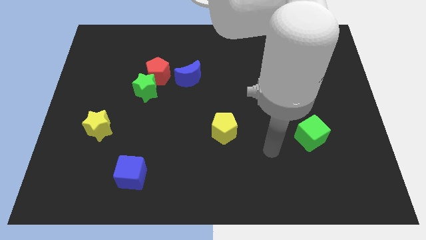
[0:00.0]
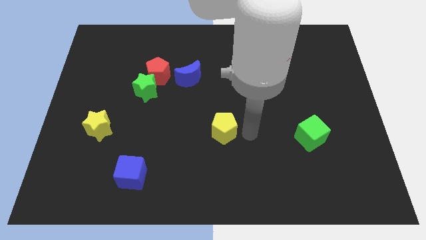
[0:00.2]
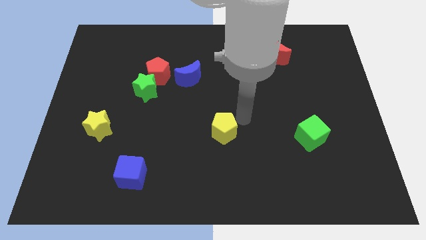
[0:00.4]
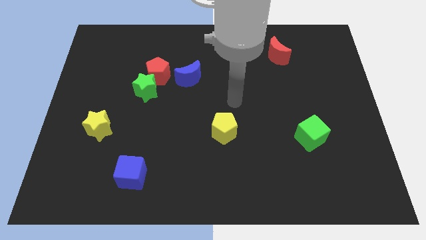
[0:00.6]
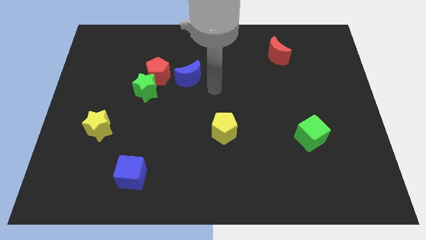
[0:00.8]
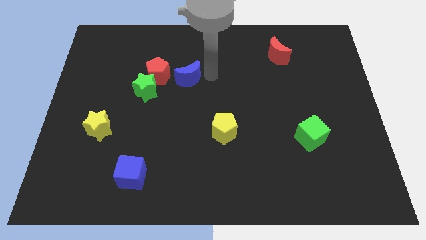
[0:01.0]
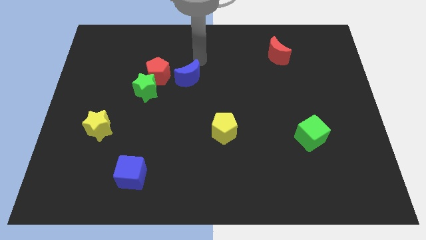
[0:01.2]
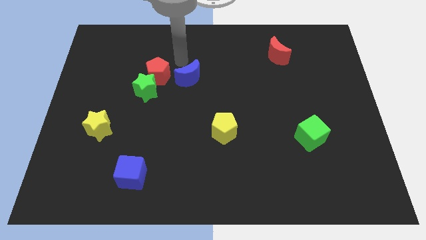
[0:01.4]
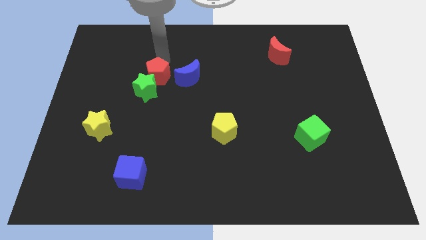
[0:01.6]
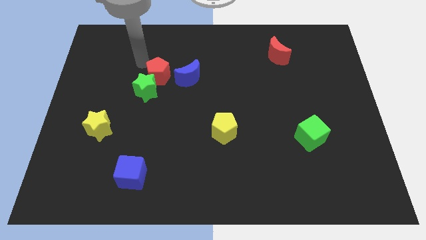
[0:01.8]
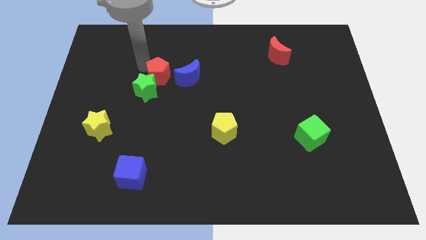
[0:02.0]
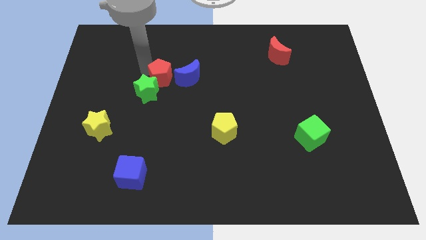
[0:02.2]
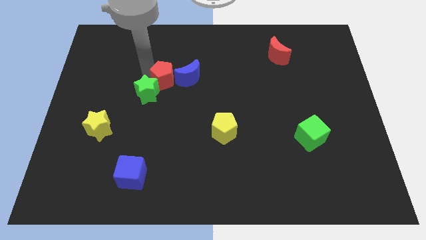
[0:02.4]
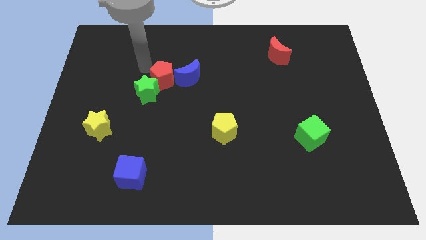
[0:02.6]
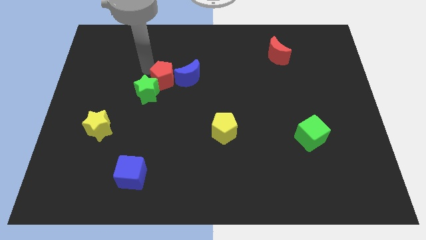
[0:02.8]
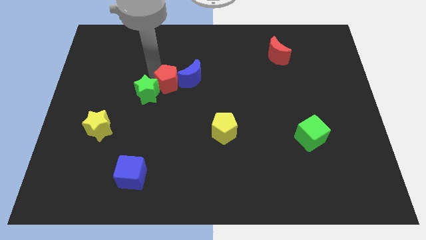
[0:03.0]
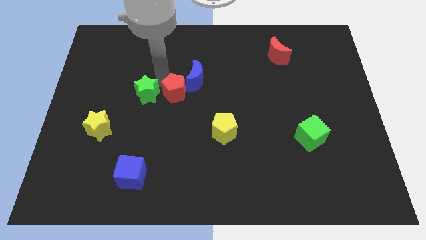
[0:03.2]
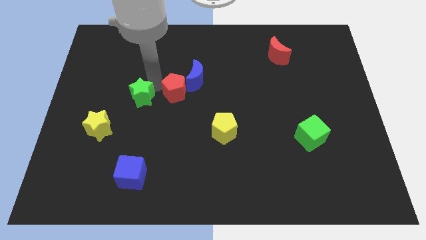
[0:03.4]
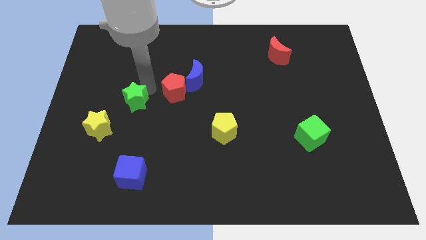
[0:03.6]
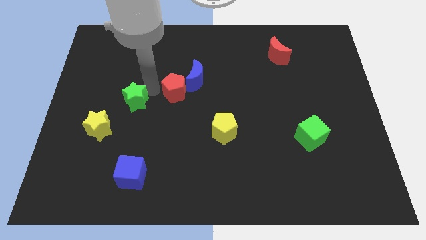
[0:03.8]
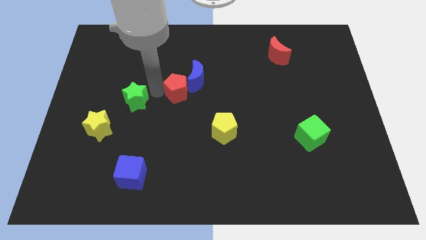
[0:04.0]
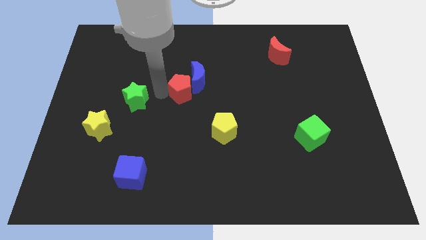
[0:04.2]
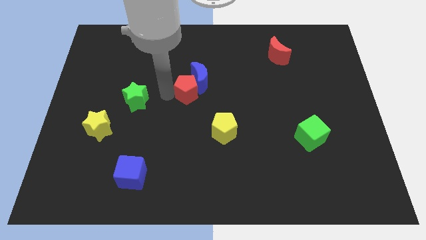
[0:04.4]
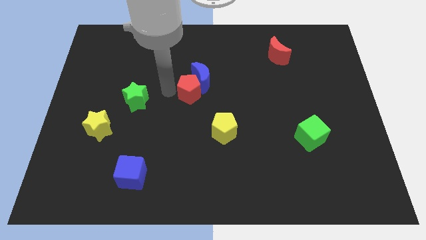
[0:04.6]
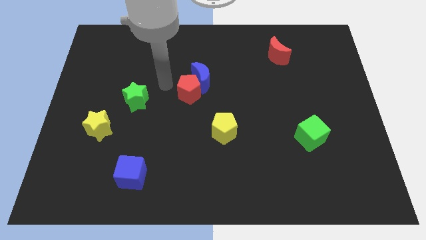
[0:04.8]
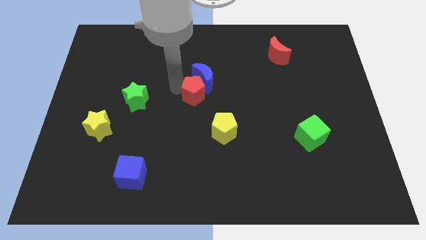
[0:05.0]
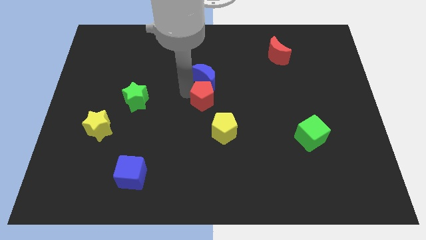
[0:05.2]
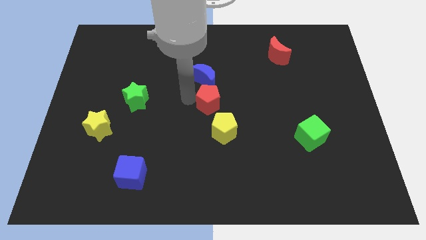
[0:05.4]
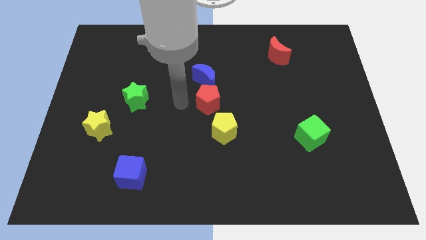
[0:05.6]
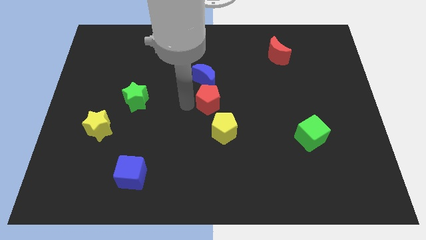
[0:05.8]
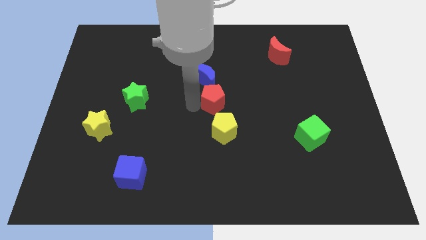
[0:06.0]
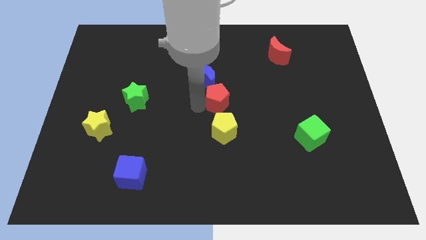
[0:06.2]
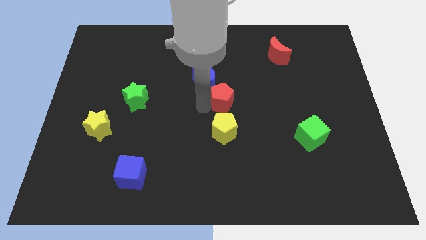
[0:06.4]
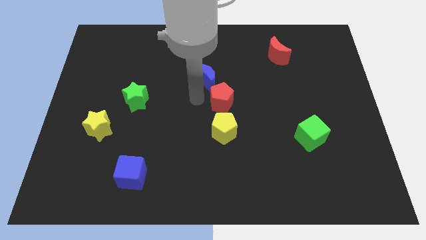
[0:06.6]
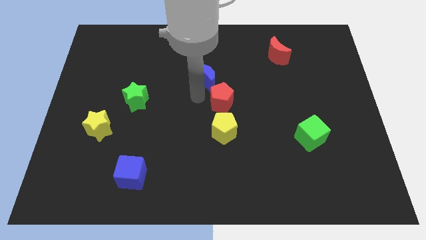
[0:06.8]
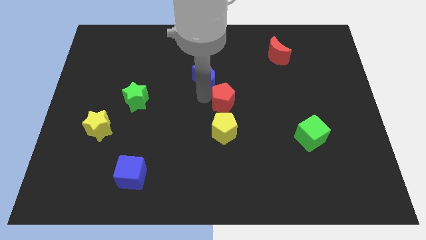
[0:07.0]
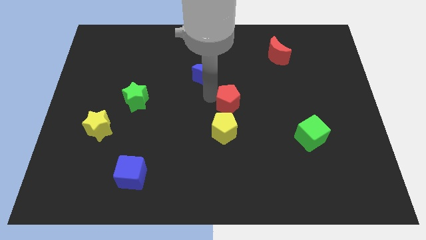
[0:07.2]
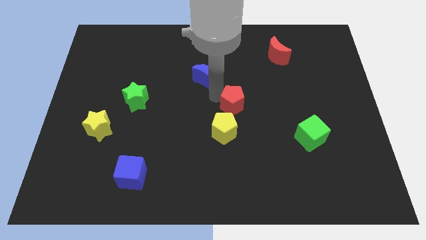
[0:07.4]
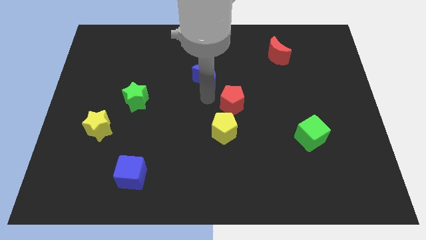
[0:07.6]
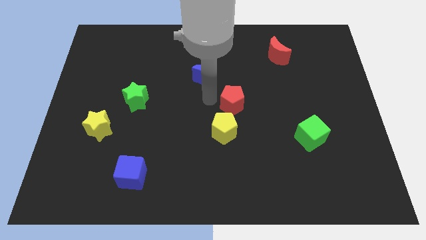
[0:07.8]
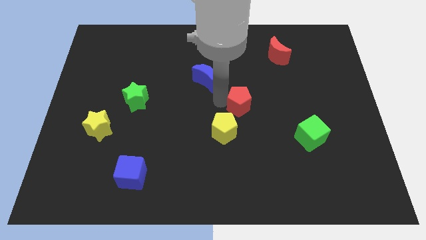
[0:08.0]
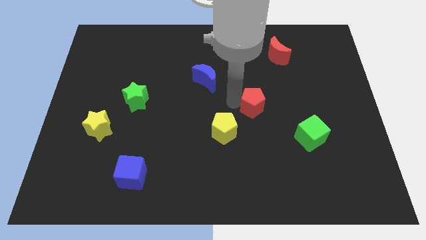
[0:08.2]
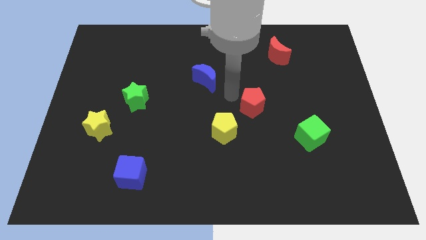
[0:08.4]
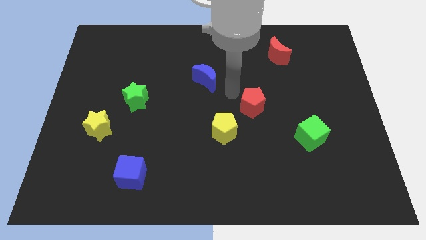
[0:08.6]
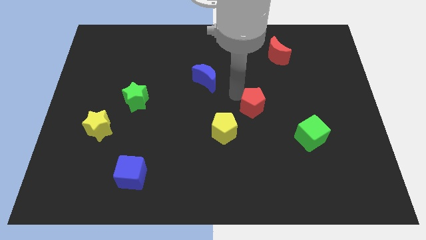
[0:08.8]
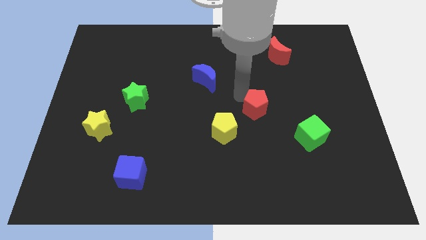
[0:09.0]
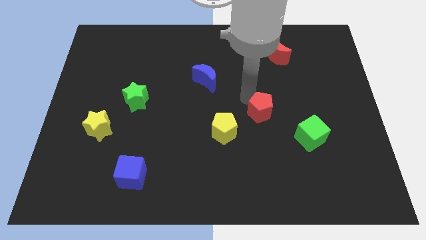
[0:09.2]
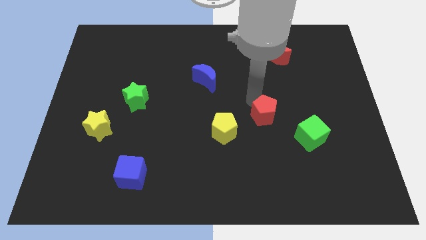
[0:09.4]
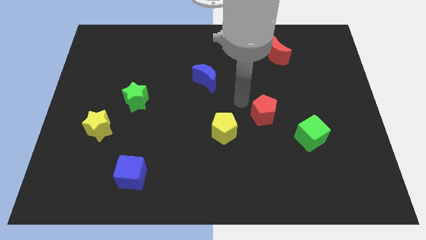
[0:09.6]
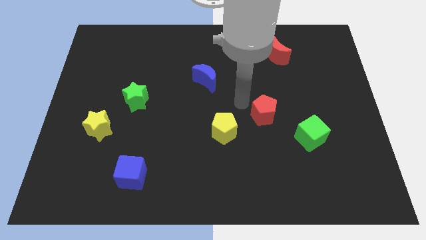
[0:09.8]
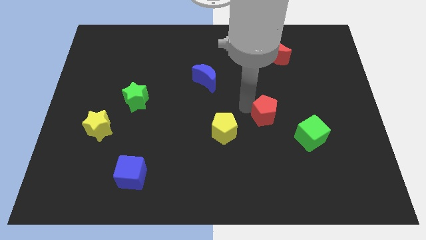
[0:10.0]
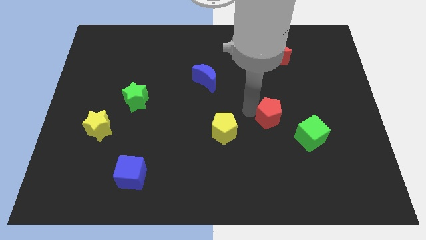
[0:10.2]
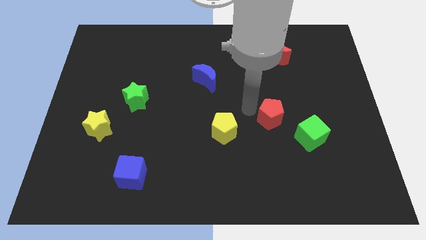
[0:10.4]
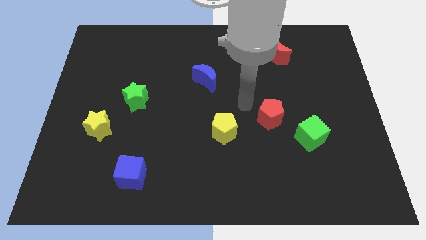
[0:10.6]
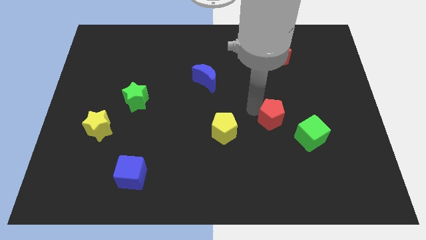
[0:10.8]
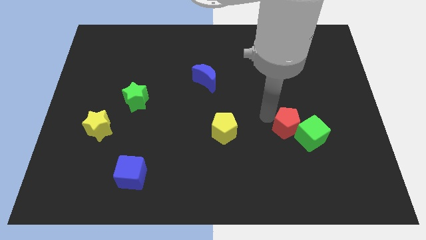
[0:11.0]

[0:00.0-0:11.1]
put the red pentagon to the green cube

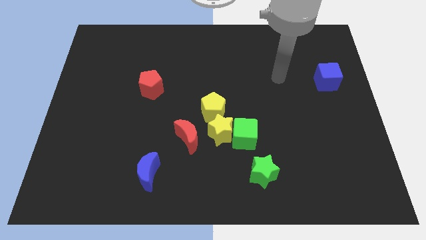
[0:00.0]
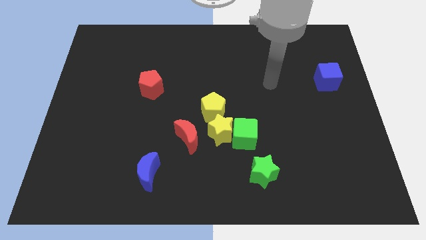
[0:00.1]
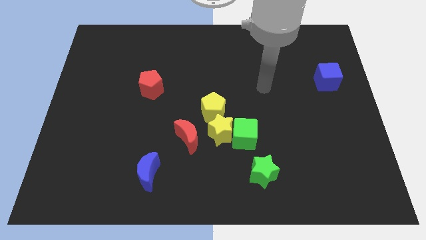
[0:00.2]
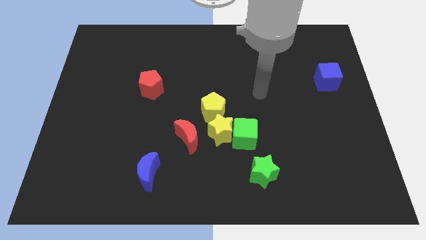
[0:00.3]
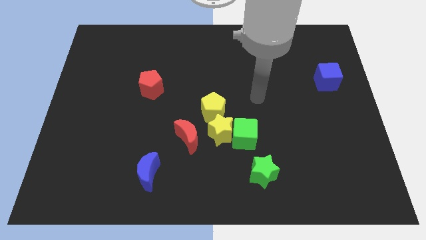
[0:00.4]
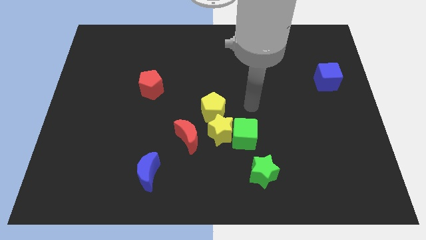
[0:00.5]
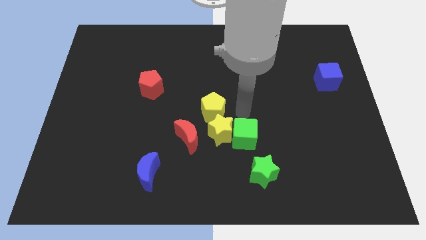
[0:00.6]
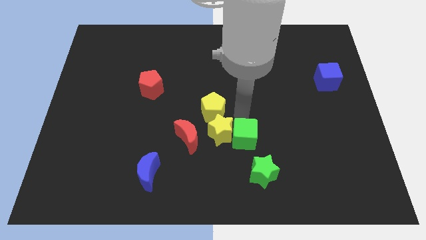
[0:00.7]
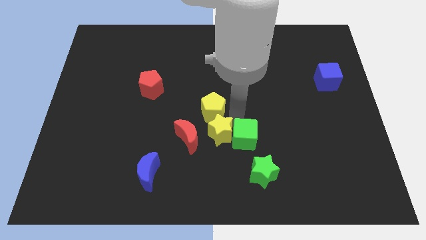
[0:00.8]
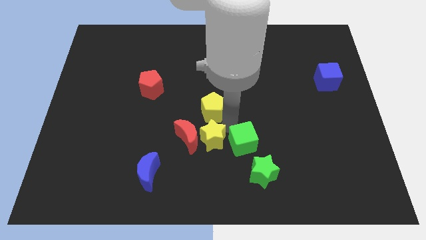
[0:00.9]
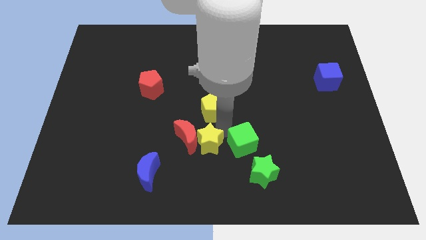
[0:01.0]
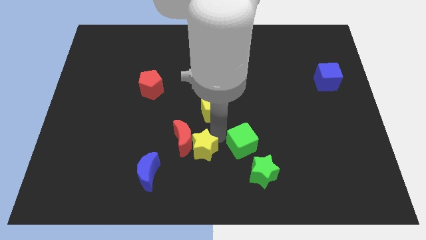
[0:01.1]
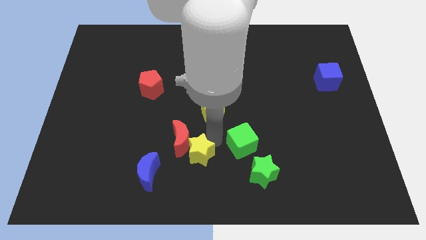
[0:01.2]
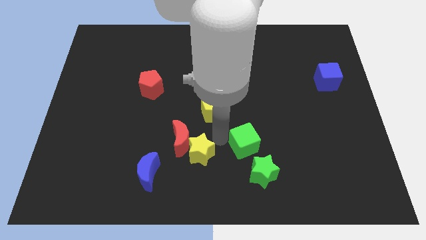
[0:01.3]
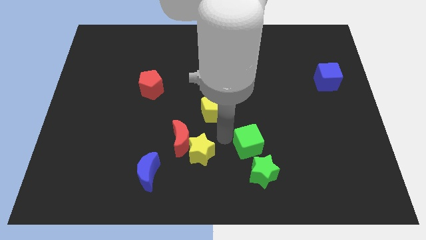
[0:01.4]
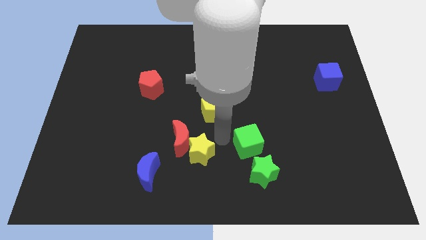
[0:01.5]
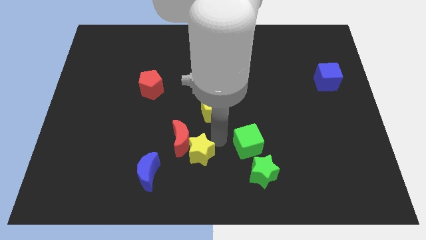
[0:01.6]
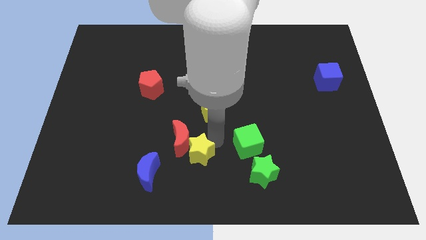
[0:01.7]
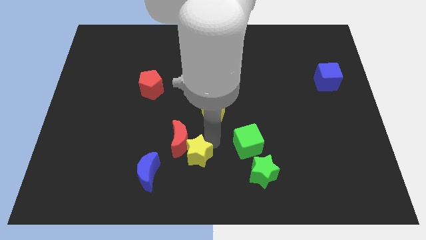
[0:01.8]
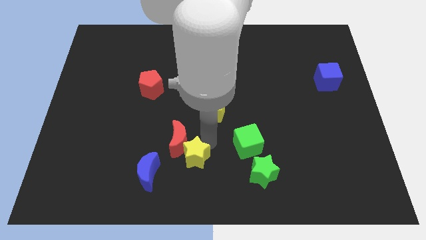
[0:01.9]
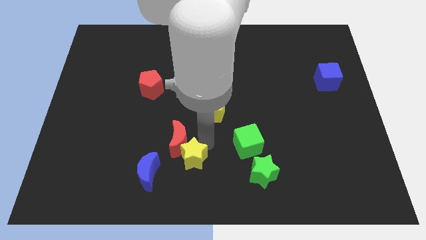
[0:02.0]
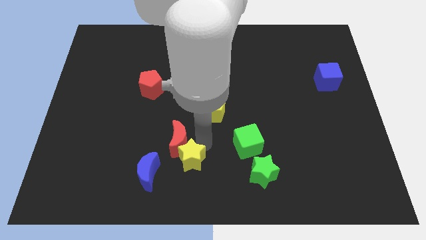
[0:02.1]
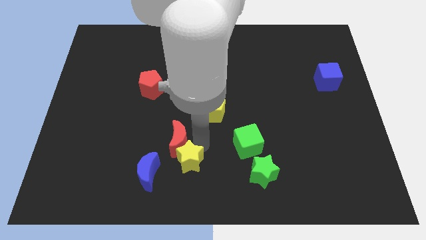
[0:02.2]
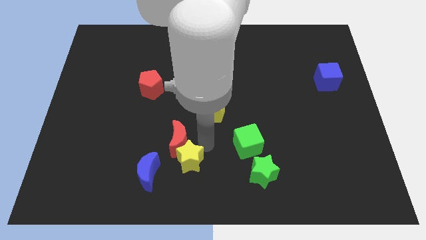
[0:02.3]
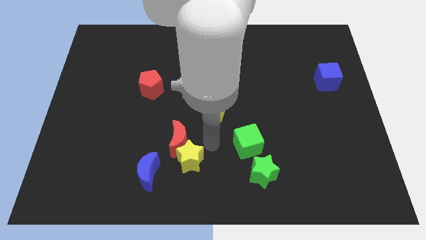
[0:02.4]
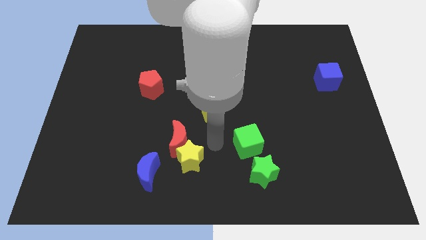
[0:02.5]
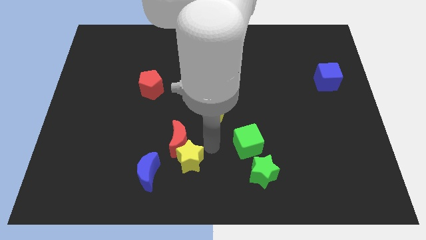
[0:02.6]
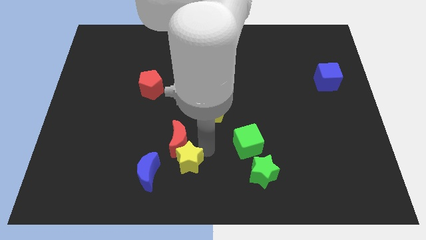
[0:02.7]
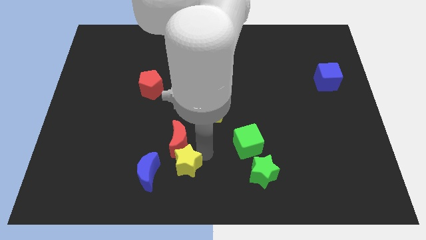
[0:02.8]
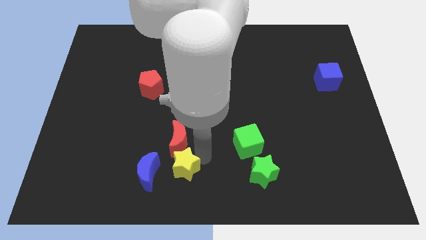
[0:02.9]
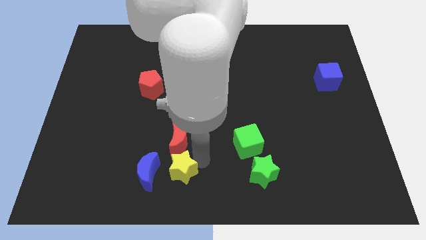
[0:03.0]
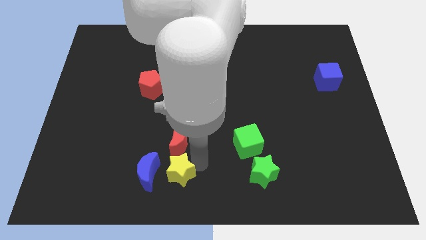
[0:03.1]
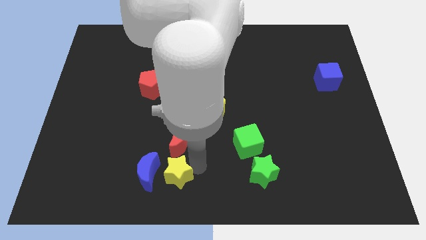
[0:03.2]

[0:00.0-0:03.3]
push the yellow star close to the blue moon
